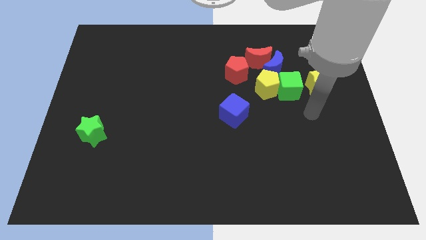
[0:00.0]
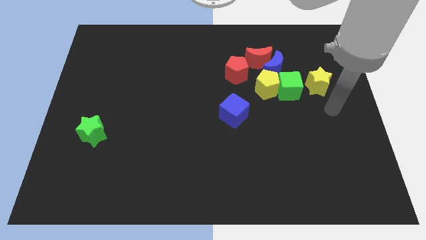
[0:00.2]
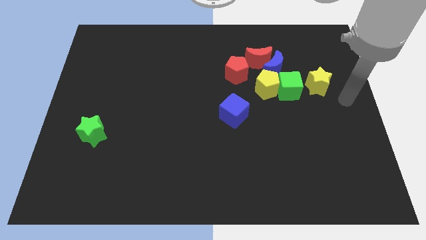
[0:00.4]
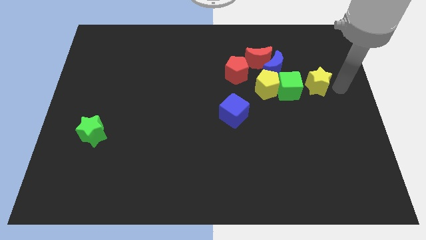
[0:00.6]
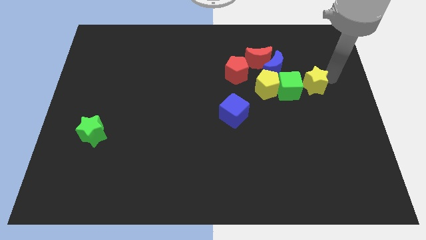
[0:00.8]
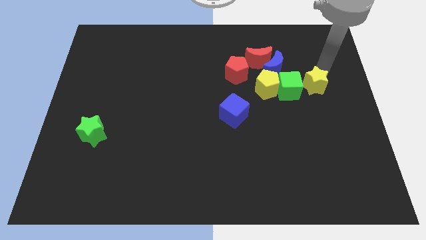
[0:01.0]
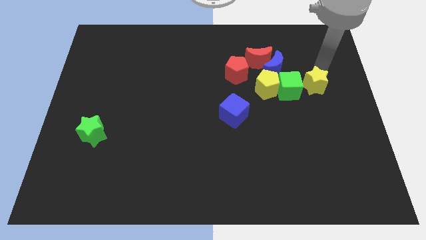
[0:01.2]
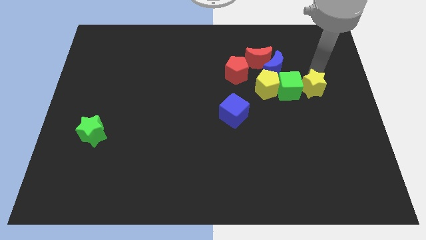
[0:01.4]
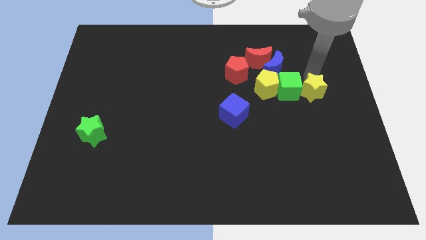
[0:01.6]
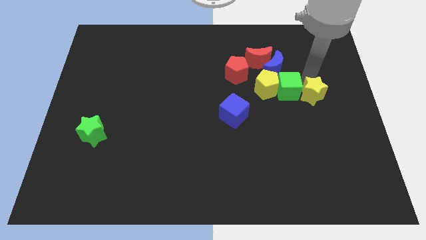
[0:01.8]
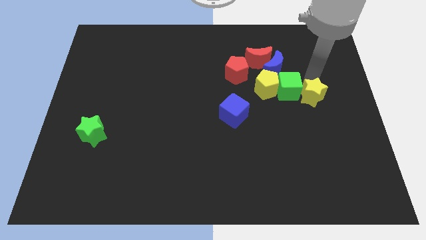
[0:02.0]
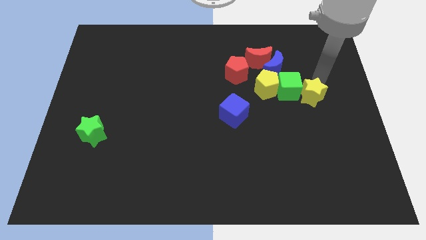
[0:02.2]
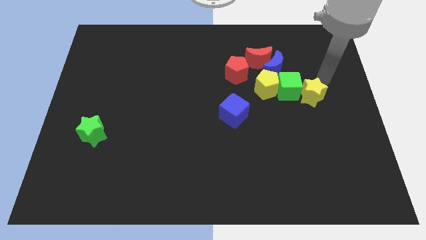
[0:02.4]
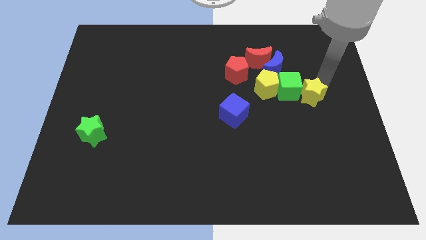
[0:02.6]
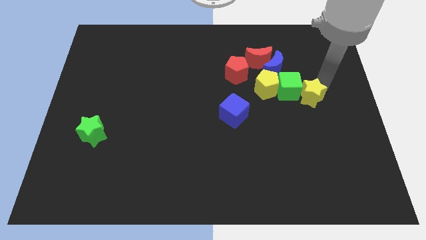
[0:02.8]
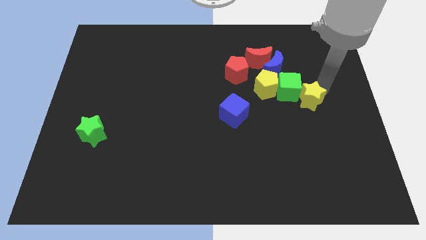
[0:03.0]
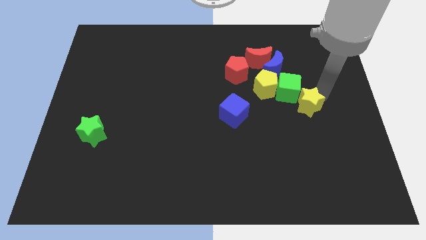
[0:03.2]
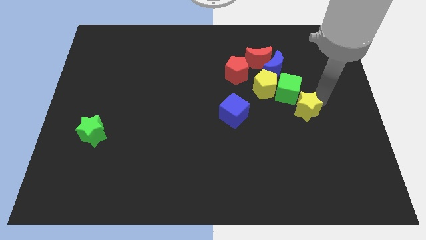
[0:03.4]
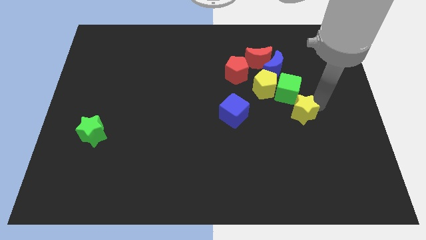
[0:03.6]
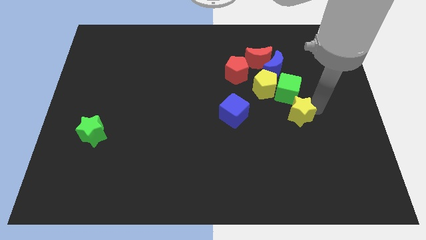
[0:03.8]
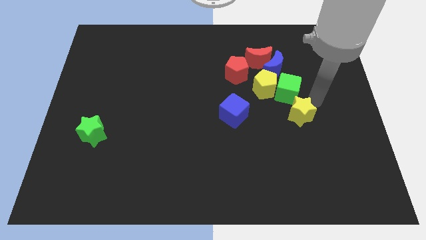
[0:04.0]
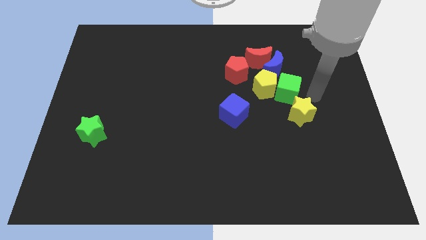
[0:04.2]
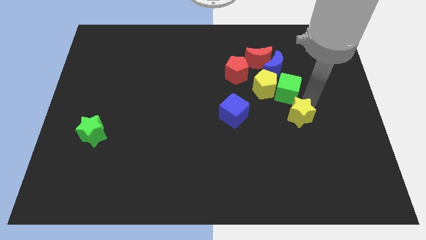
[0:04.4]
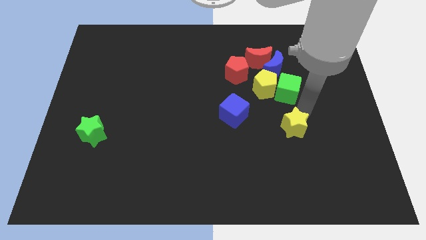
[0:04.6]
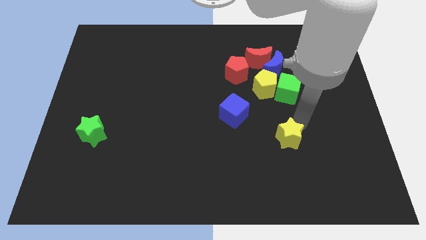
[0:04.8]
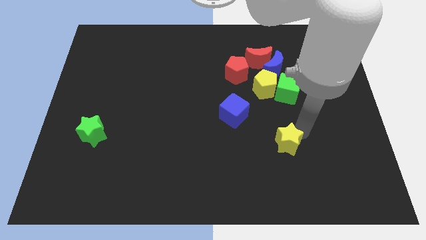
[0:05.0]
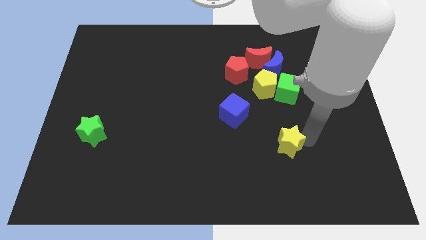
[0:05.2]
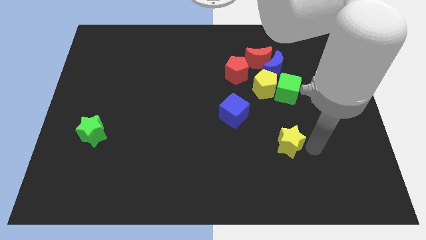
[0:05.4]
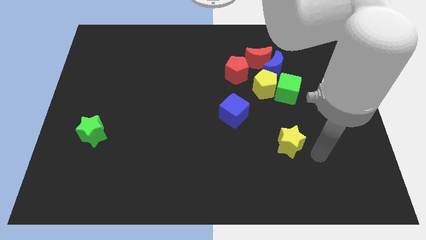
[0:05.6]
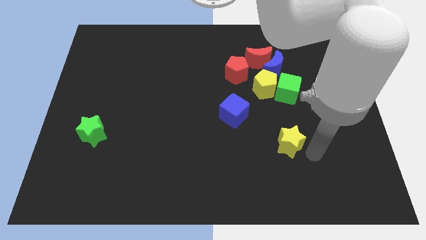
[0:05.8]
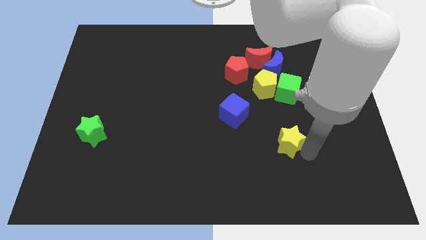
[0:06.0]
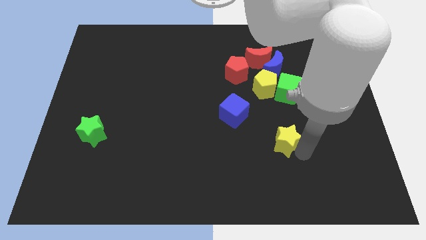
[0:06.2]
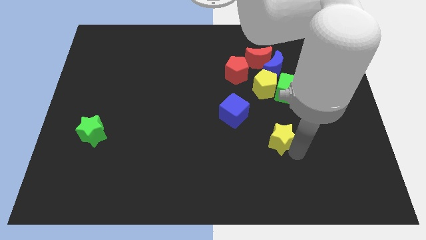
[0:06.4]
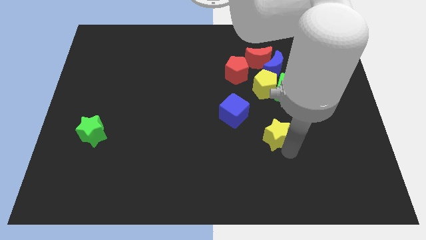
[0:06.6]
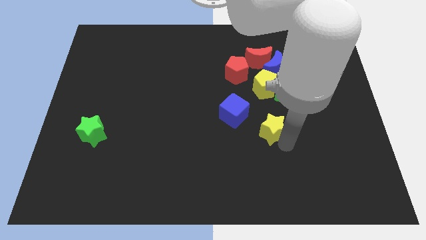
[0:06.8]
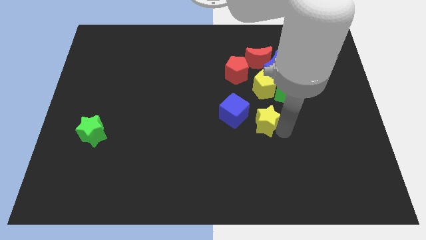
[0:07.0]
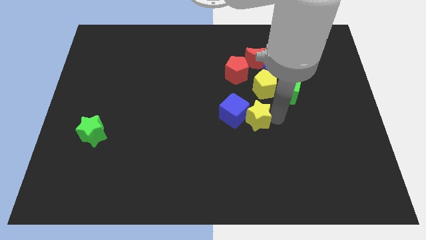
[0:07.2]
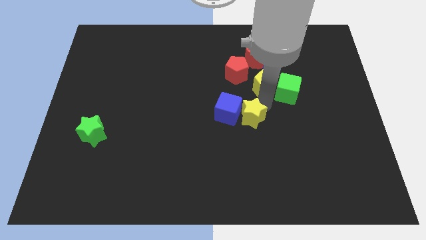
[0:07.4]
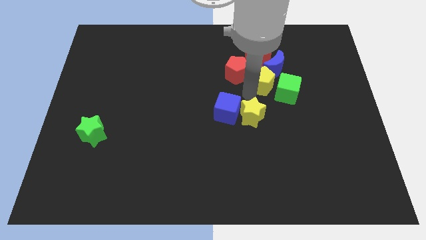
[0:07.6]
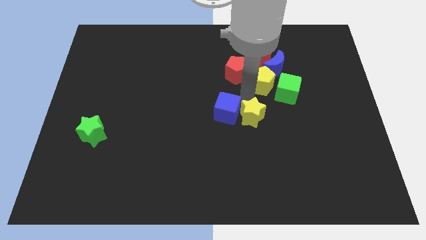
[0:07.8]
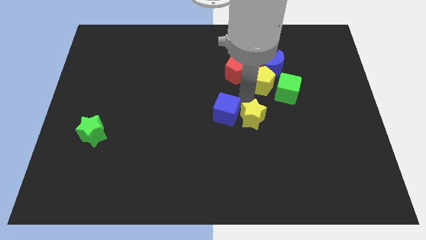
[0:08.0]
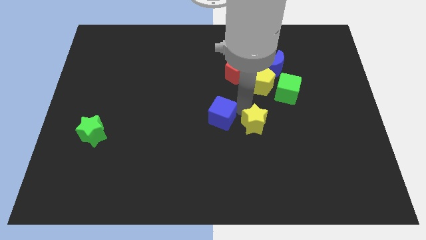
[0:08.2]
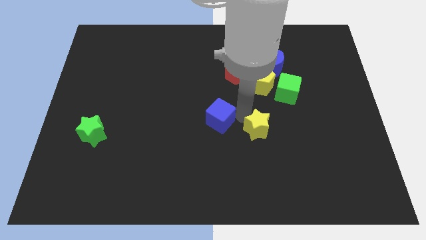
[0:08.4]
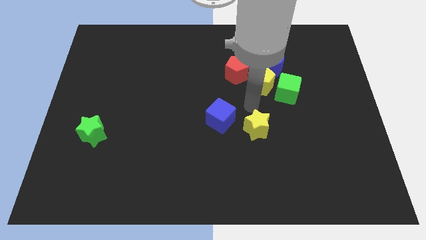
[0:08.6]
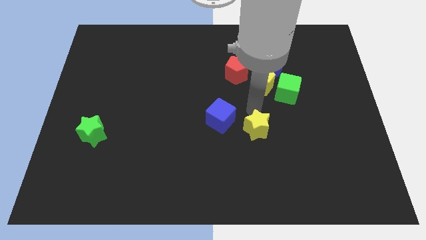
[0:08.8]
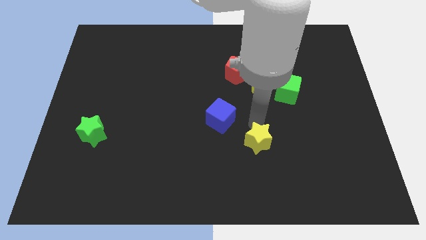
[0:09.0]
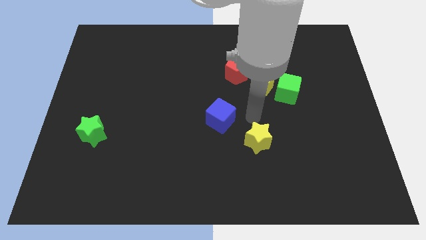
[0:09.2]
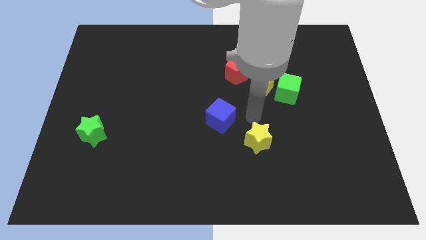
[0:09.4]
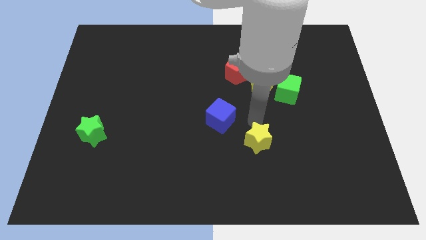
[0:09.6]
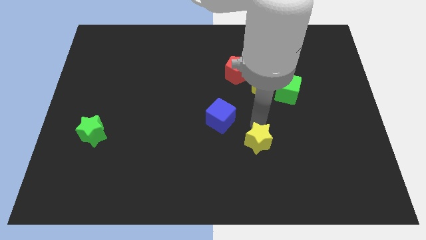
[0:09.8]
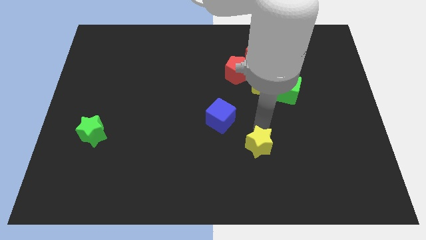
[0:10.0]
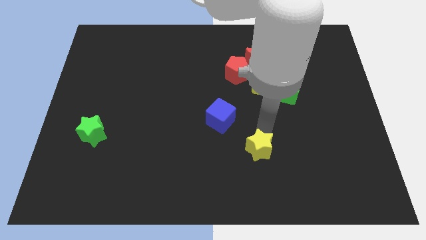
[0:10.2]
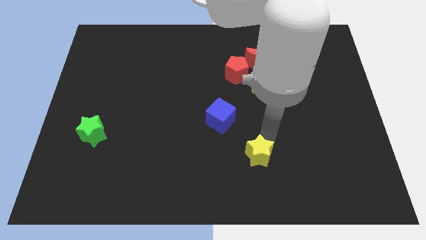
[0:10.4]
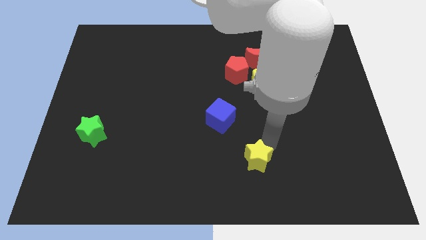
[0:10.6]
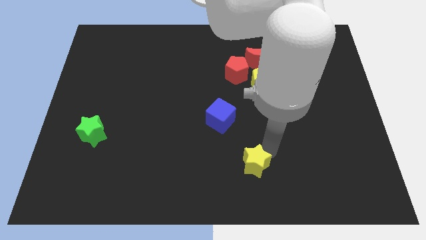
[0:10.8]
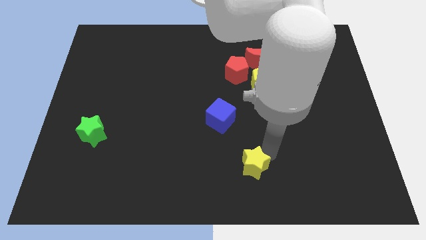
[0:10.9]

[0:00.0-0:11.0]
slide the yellow star to the bottom side

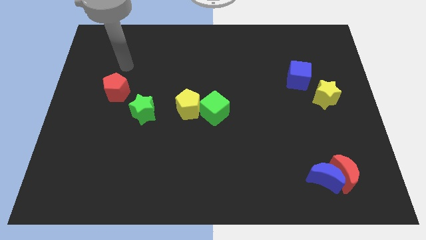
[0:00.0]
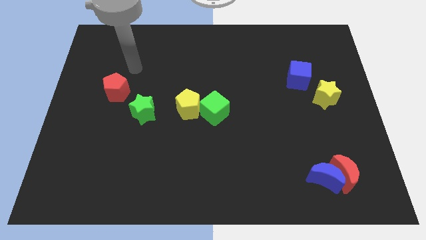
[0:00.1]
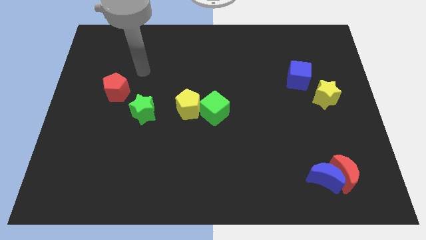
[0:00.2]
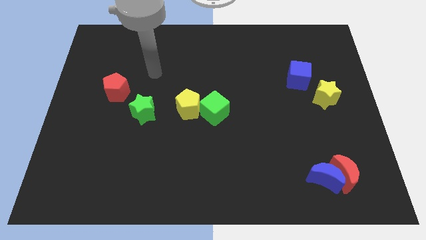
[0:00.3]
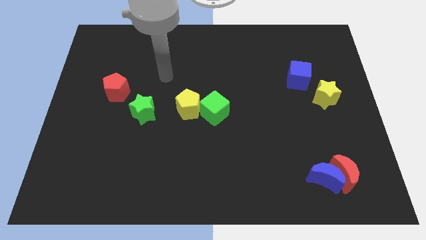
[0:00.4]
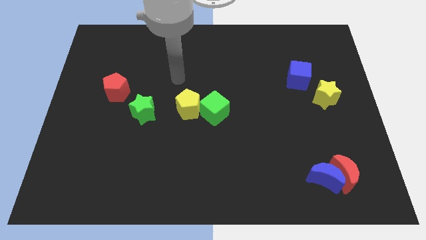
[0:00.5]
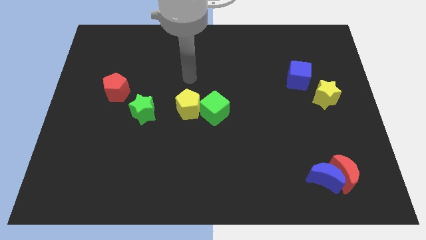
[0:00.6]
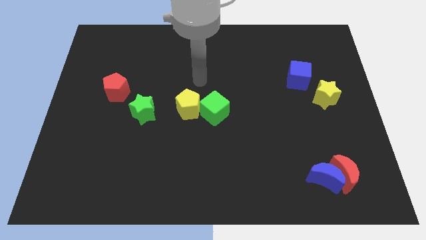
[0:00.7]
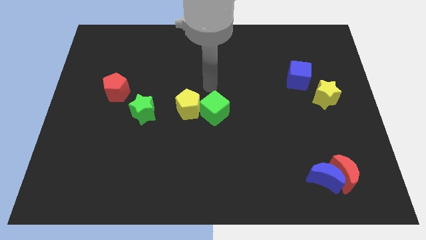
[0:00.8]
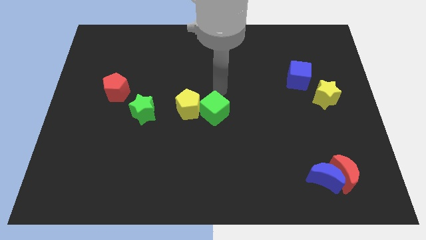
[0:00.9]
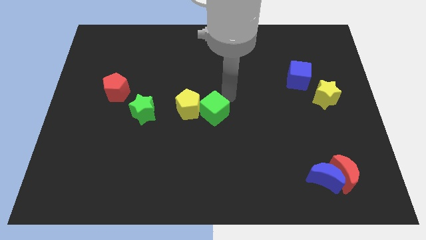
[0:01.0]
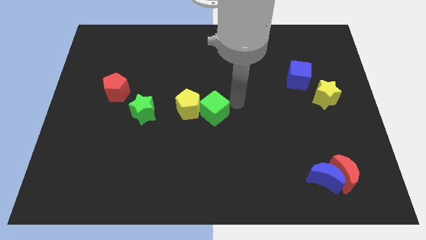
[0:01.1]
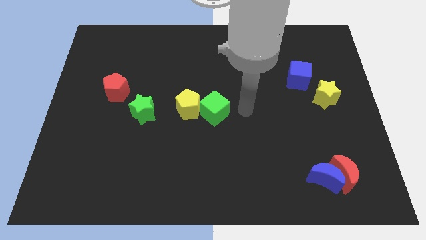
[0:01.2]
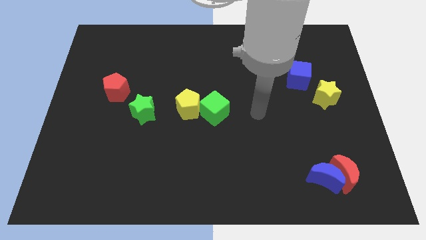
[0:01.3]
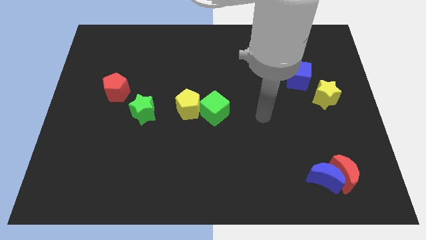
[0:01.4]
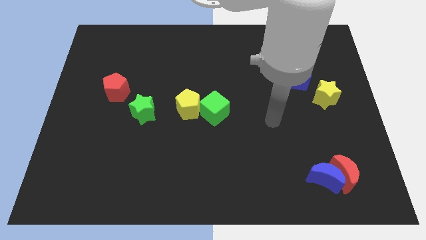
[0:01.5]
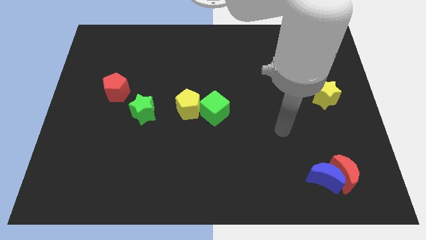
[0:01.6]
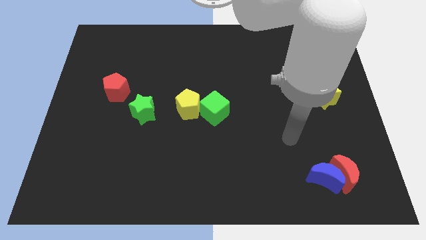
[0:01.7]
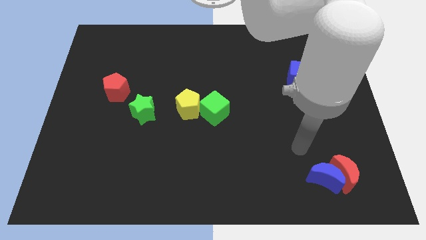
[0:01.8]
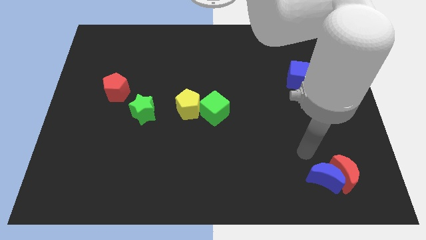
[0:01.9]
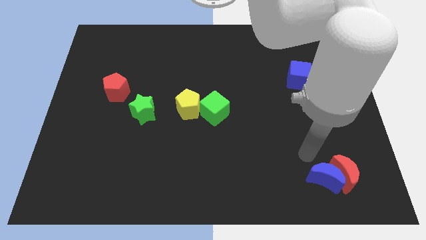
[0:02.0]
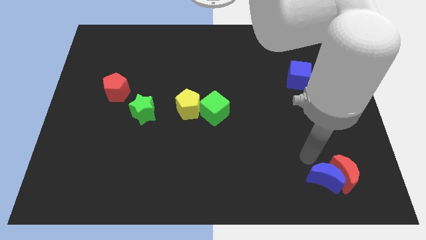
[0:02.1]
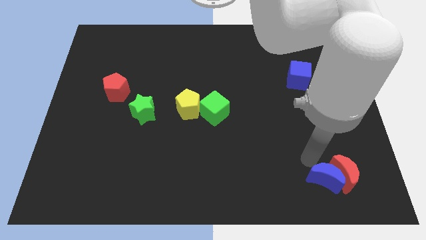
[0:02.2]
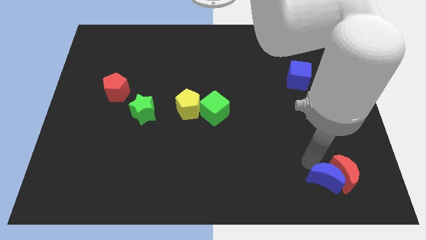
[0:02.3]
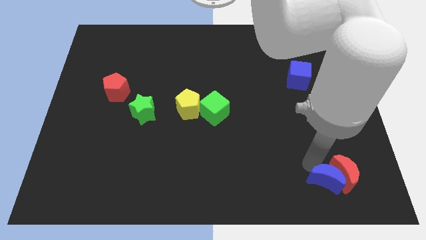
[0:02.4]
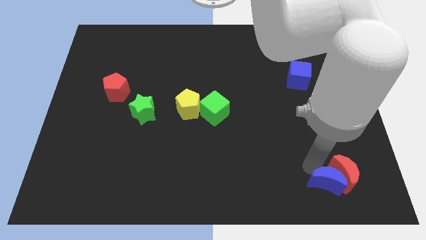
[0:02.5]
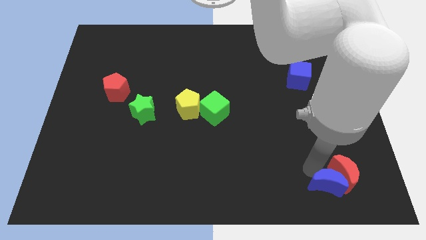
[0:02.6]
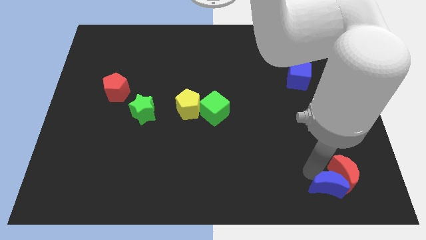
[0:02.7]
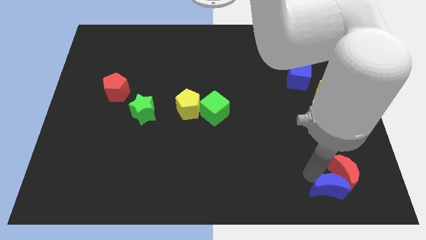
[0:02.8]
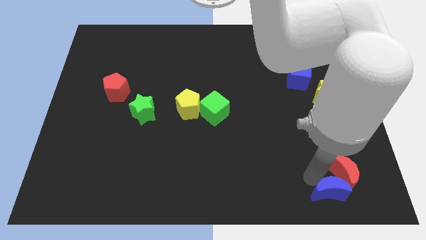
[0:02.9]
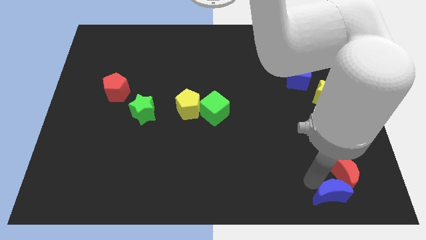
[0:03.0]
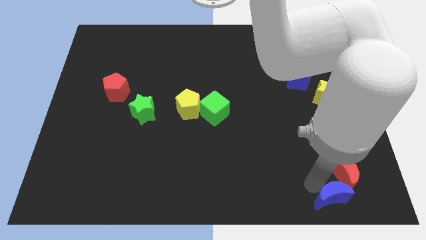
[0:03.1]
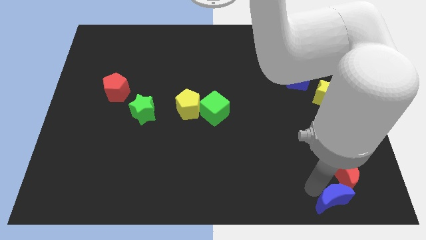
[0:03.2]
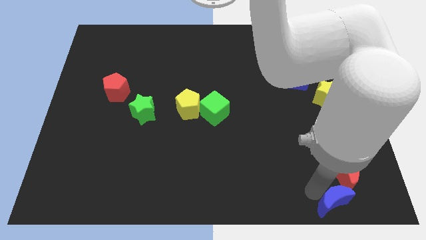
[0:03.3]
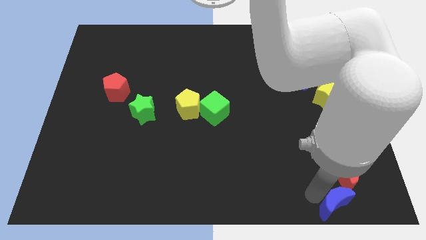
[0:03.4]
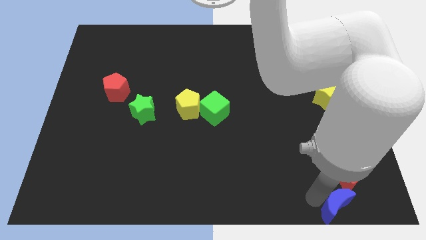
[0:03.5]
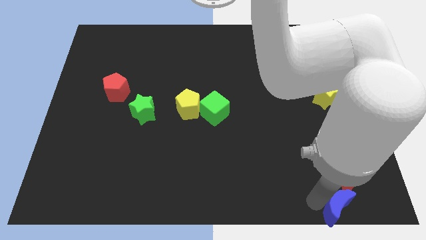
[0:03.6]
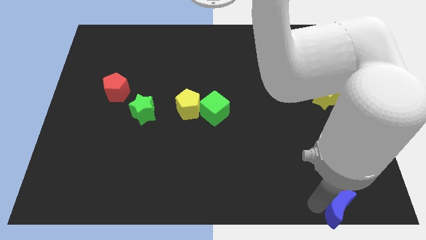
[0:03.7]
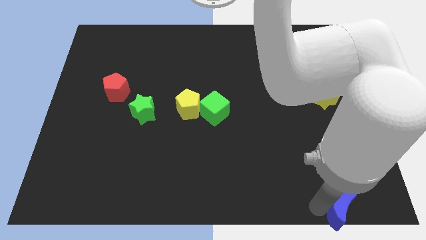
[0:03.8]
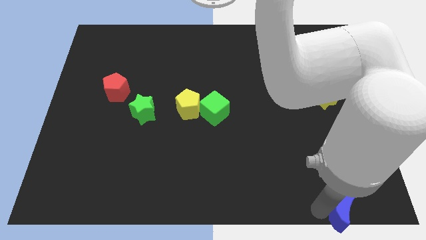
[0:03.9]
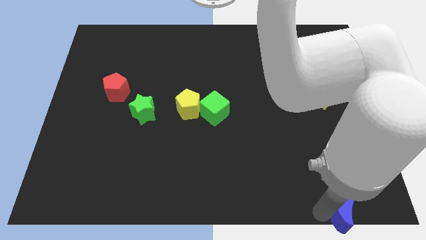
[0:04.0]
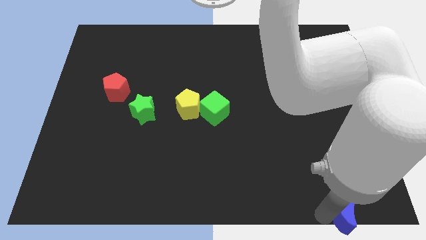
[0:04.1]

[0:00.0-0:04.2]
push the blue moon to the lower right corner
